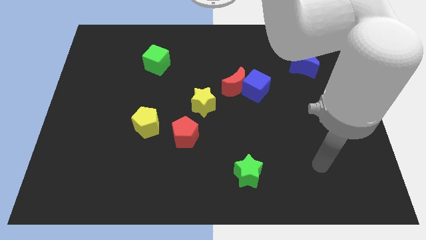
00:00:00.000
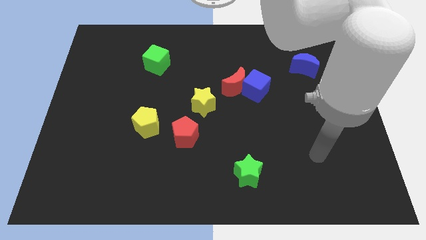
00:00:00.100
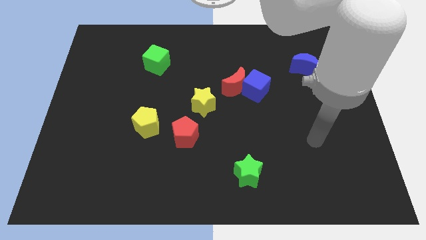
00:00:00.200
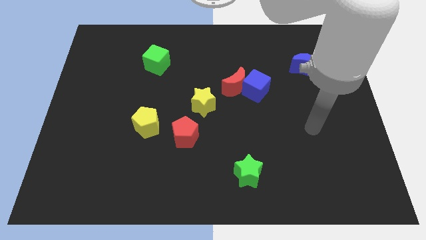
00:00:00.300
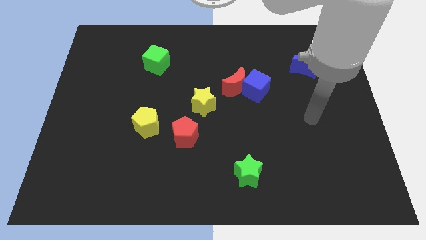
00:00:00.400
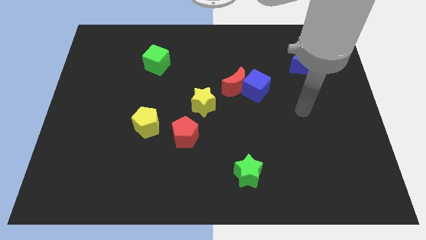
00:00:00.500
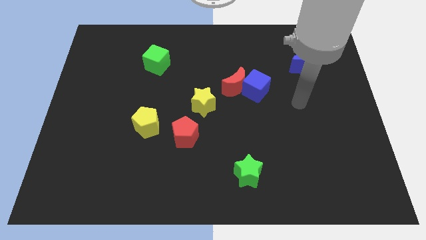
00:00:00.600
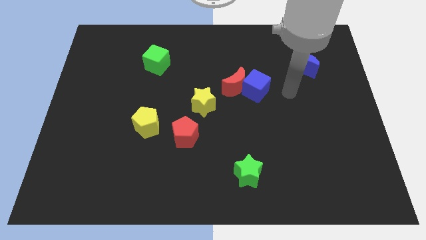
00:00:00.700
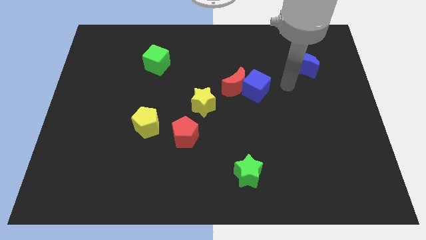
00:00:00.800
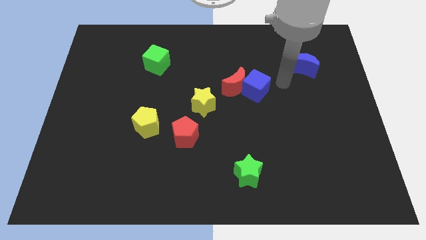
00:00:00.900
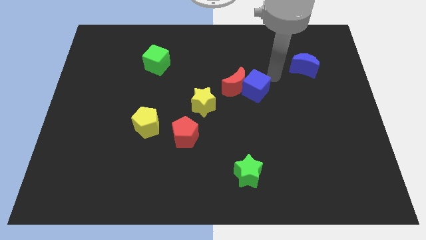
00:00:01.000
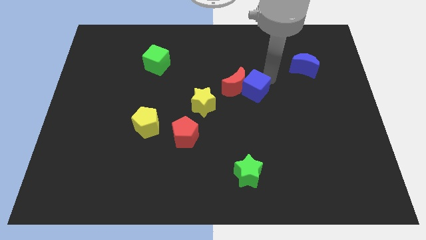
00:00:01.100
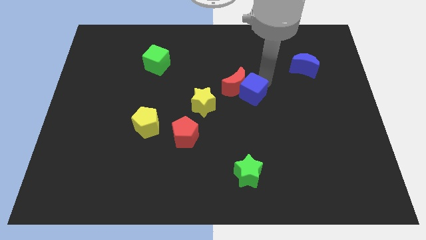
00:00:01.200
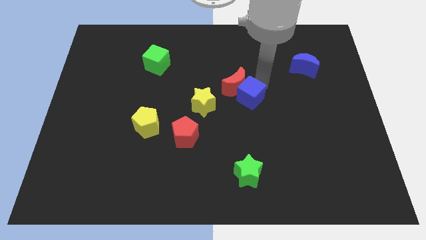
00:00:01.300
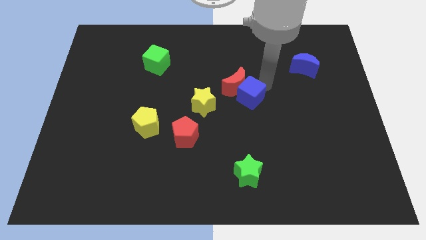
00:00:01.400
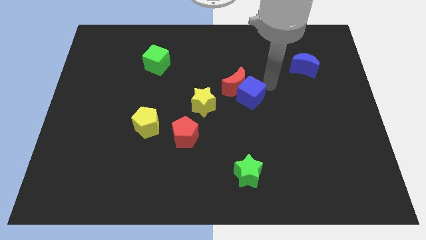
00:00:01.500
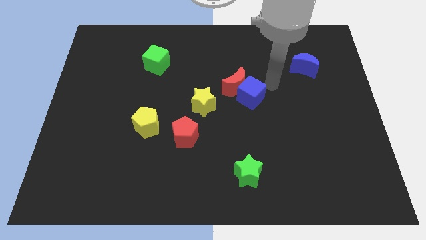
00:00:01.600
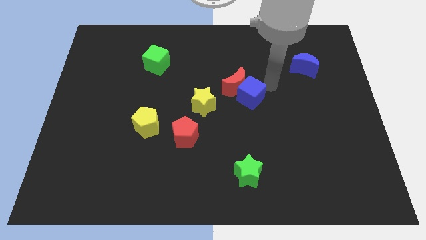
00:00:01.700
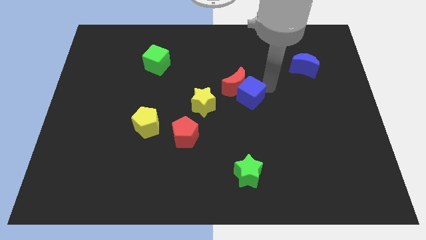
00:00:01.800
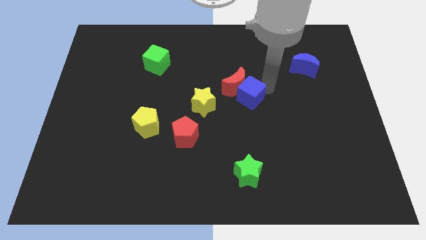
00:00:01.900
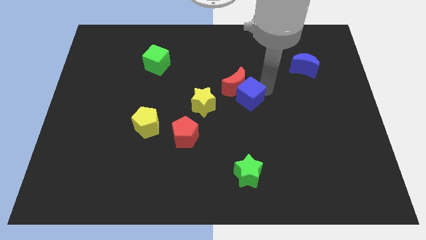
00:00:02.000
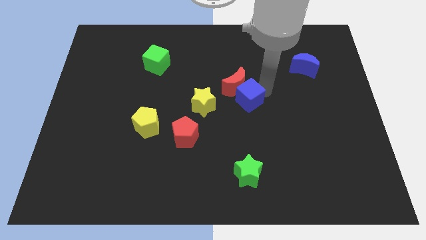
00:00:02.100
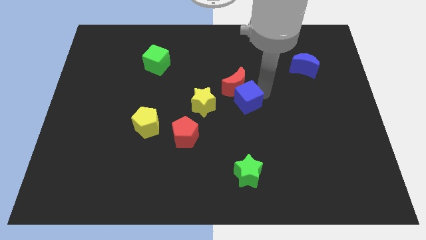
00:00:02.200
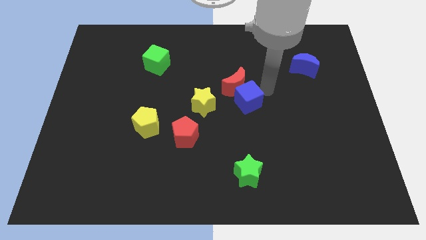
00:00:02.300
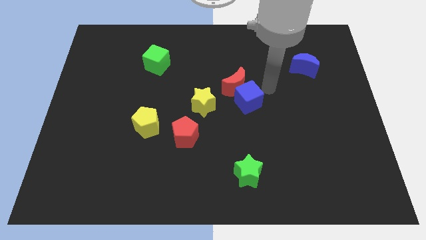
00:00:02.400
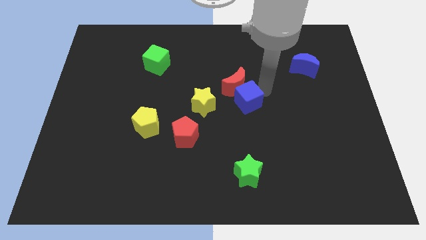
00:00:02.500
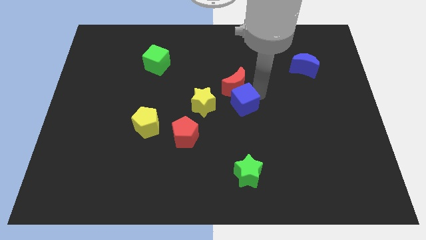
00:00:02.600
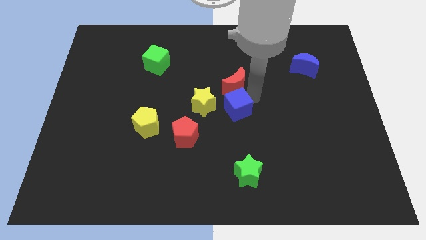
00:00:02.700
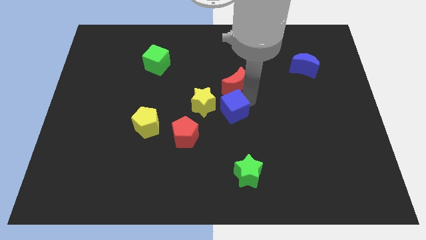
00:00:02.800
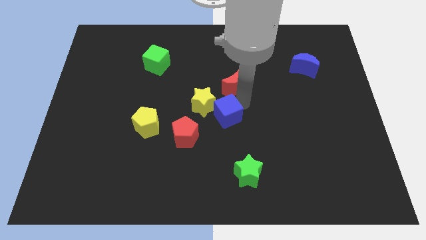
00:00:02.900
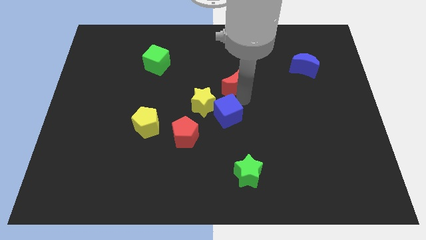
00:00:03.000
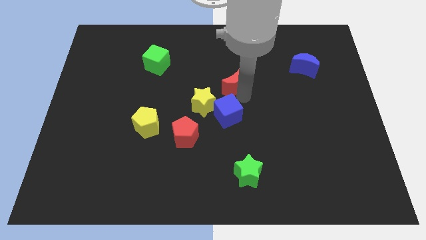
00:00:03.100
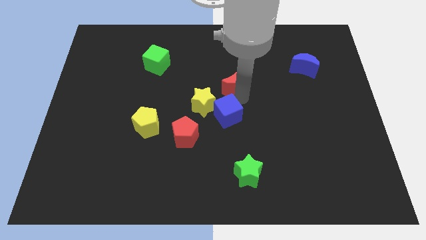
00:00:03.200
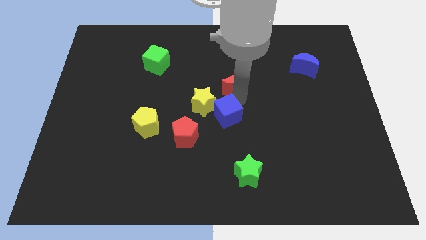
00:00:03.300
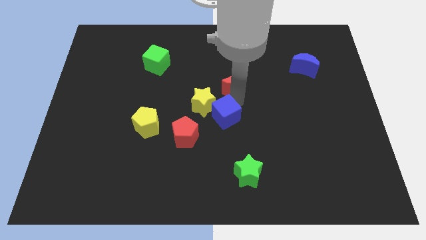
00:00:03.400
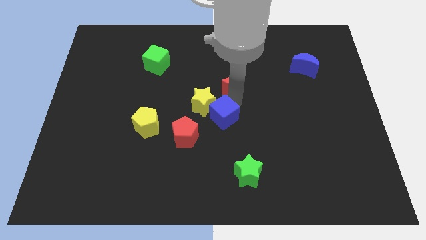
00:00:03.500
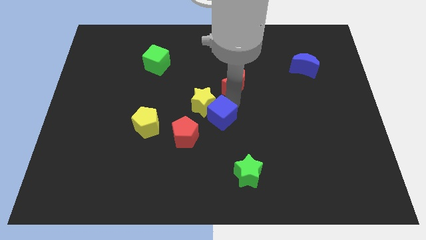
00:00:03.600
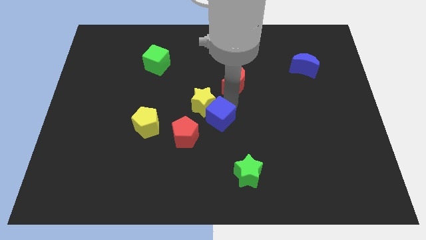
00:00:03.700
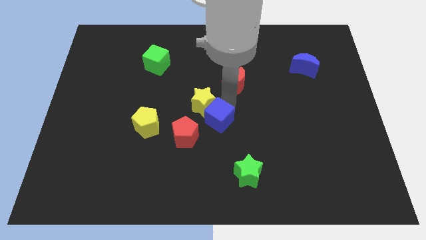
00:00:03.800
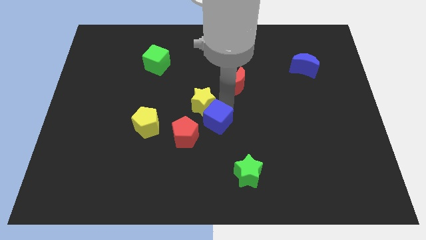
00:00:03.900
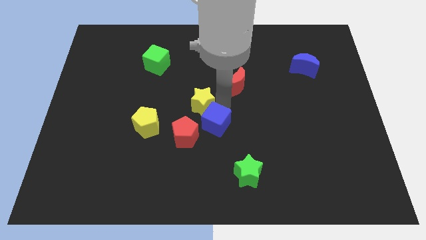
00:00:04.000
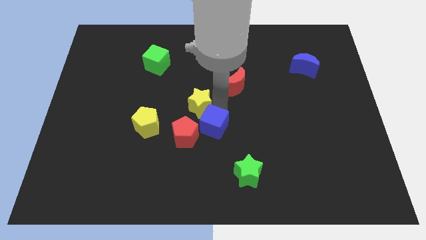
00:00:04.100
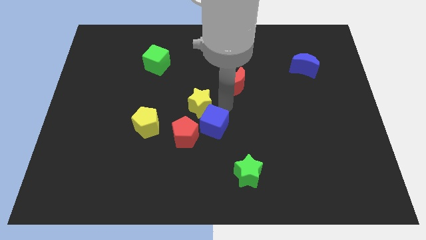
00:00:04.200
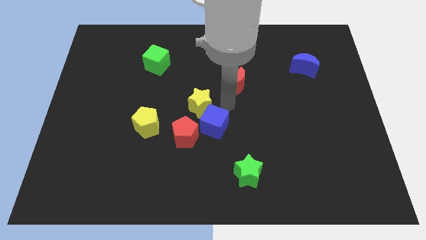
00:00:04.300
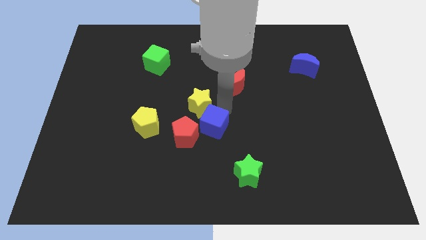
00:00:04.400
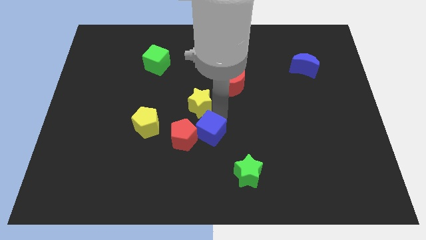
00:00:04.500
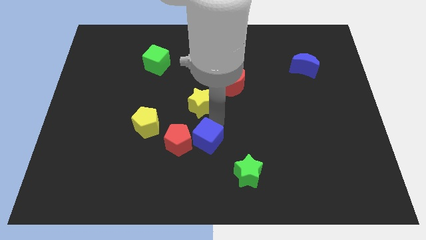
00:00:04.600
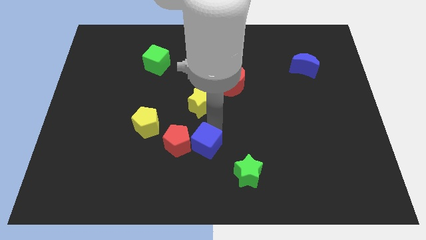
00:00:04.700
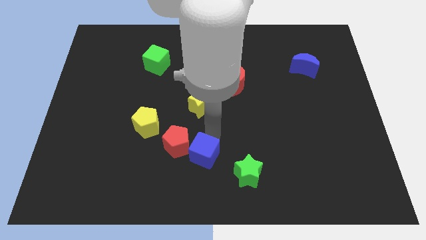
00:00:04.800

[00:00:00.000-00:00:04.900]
slide the blue cube downwards and to the left

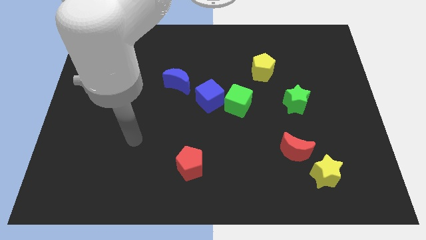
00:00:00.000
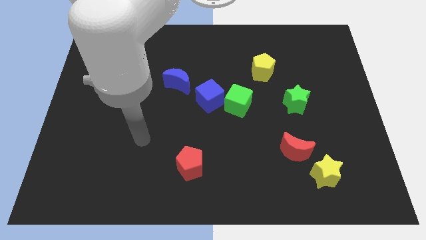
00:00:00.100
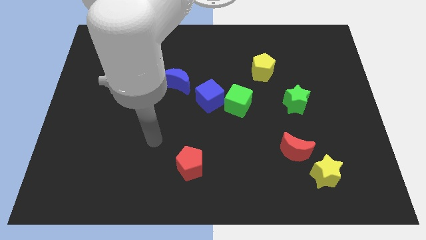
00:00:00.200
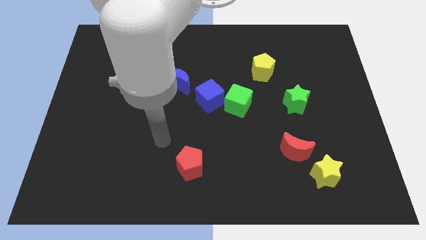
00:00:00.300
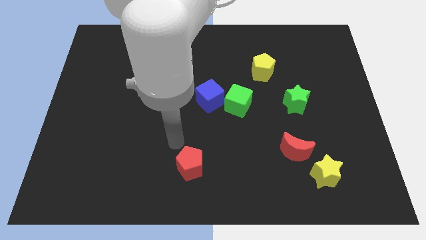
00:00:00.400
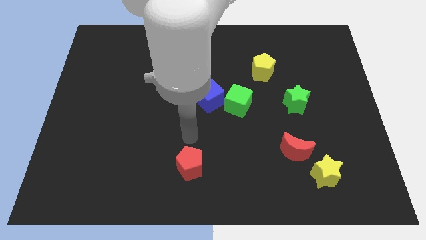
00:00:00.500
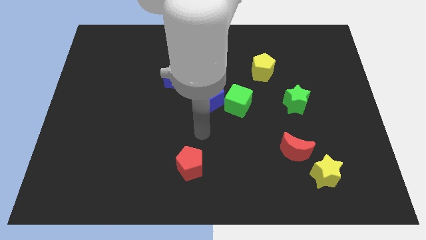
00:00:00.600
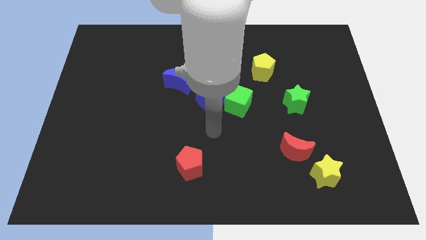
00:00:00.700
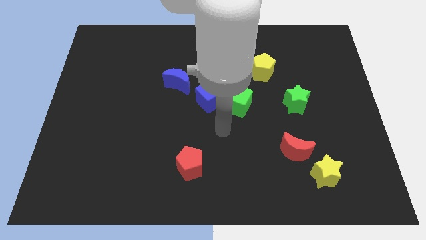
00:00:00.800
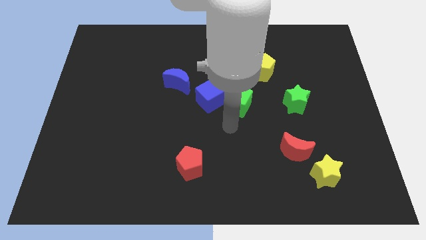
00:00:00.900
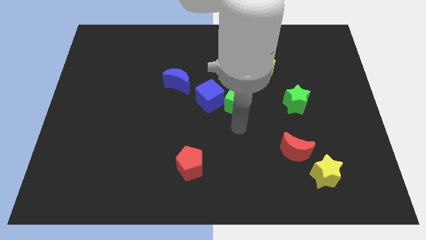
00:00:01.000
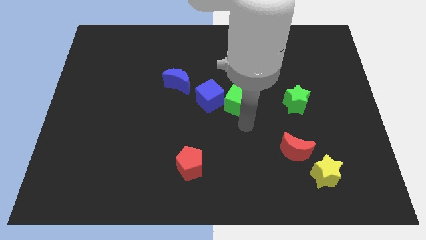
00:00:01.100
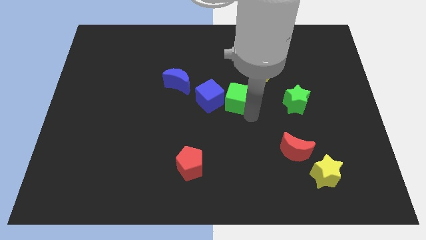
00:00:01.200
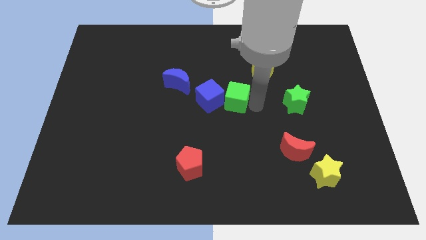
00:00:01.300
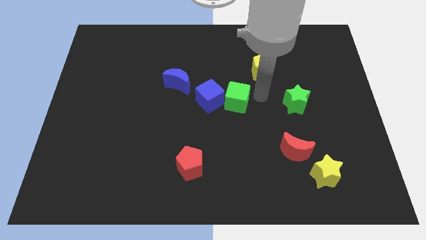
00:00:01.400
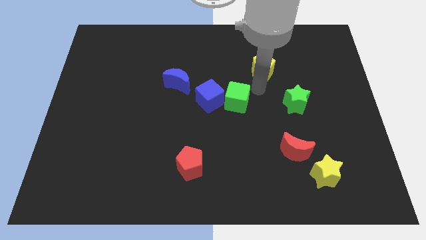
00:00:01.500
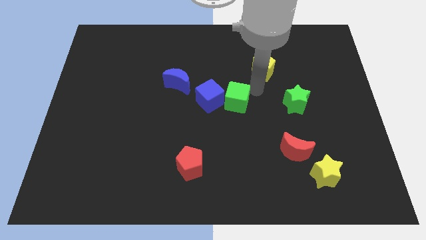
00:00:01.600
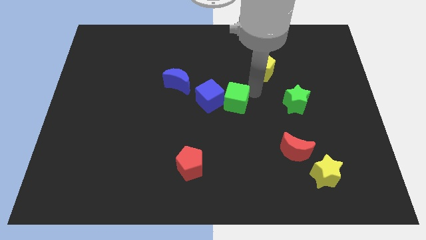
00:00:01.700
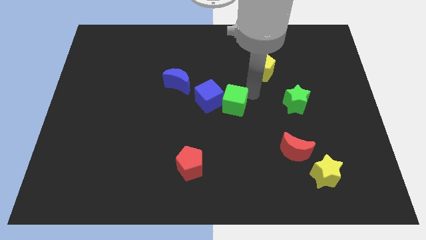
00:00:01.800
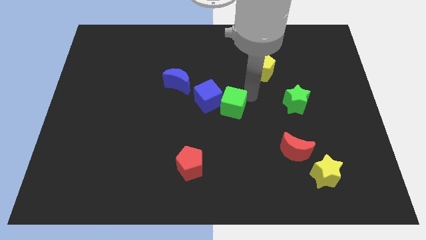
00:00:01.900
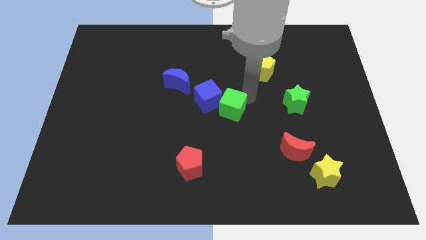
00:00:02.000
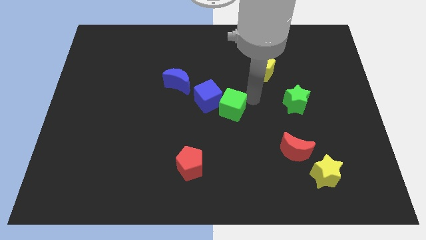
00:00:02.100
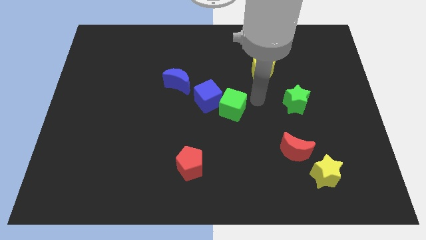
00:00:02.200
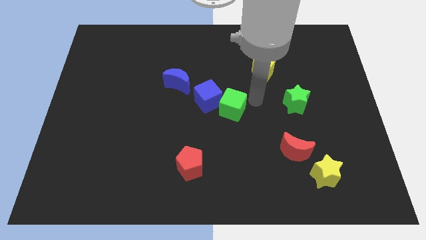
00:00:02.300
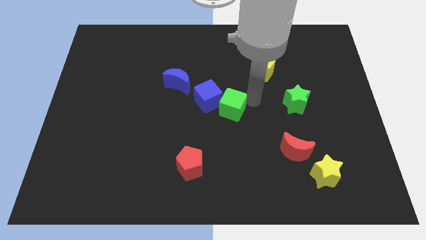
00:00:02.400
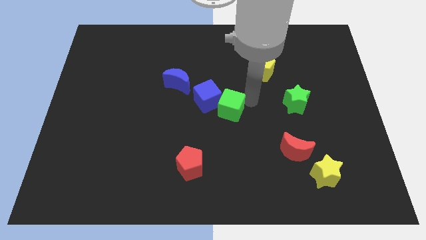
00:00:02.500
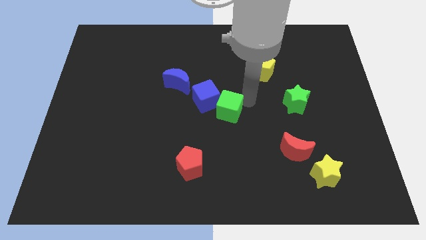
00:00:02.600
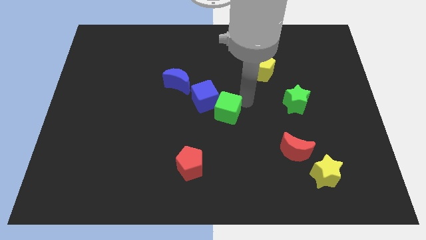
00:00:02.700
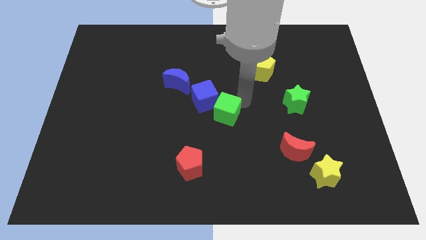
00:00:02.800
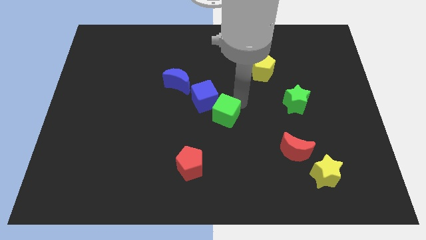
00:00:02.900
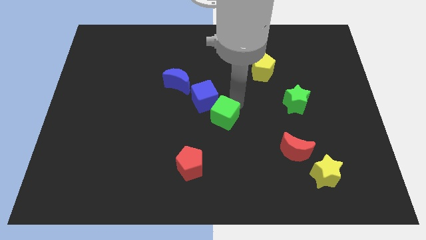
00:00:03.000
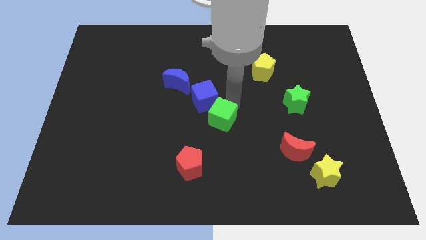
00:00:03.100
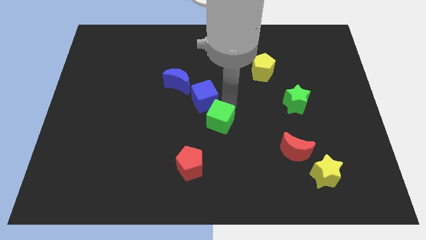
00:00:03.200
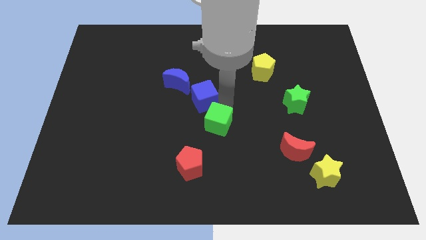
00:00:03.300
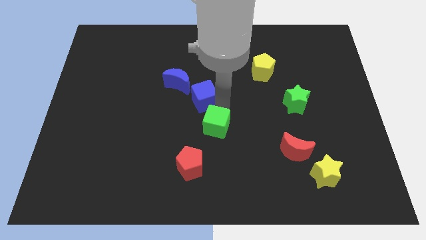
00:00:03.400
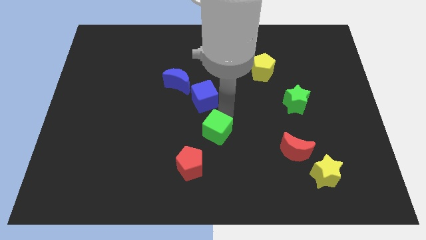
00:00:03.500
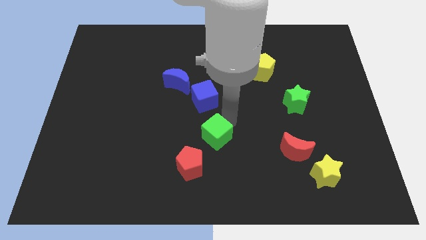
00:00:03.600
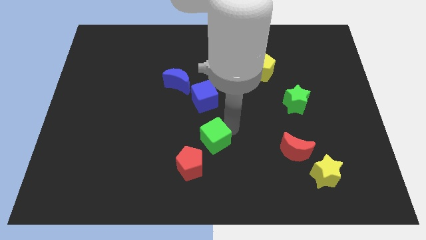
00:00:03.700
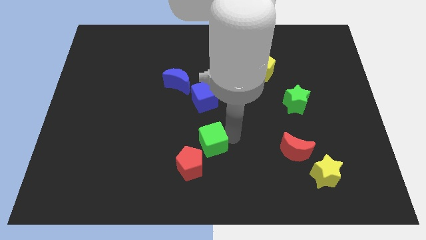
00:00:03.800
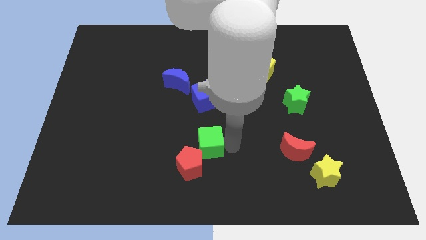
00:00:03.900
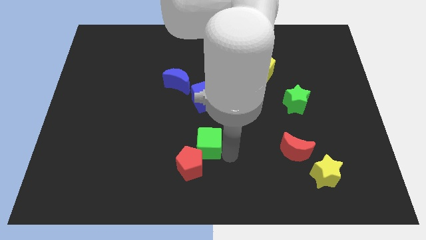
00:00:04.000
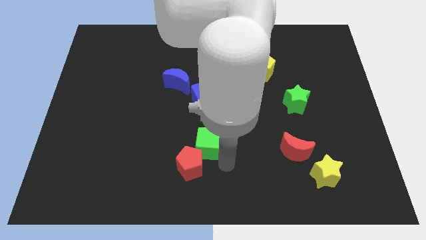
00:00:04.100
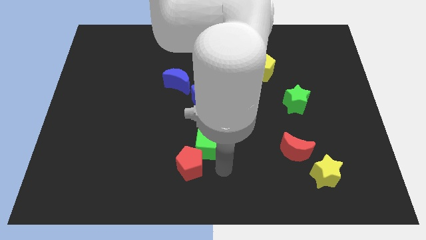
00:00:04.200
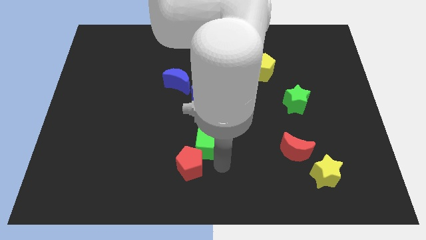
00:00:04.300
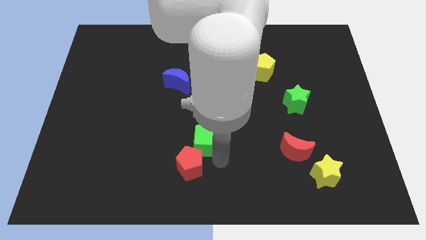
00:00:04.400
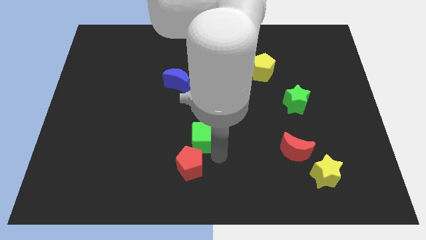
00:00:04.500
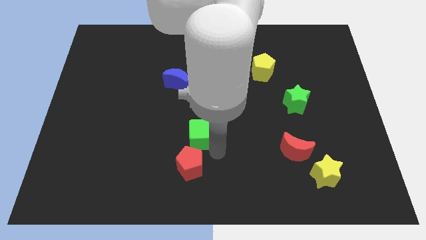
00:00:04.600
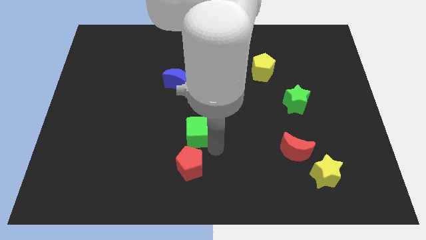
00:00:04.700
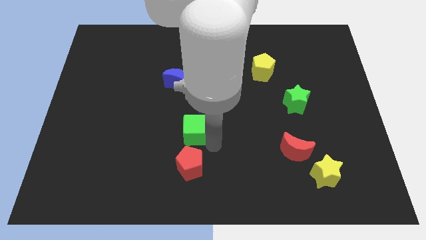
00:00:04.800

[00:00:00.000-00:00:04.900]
move the green cube to the left slightly
